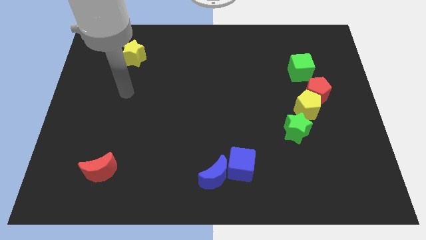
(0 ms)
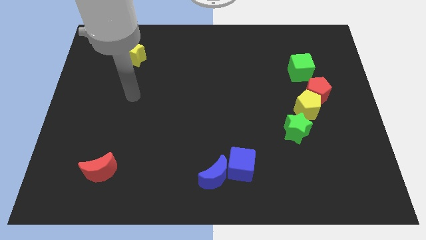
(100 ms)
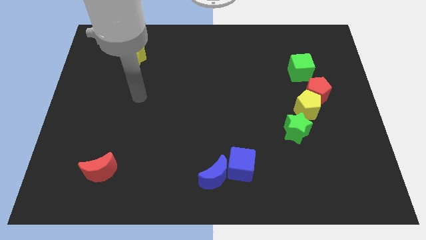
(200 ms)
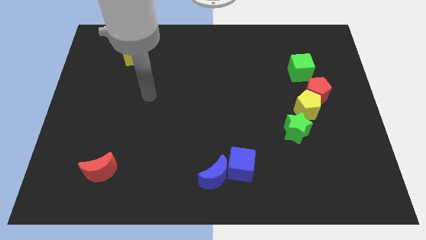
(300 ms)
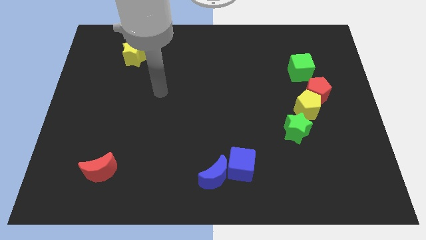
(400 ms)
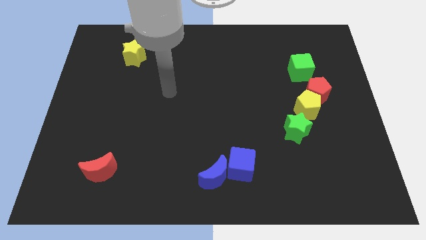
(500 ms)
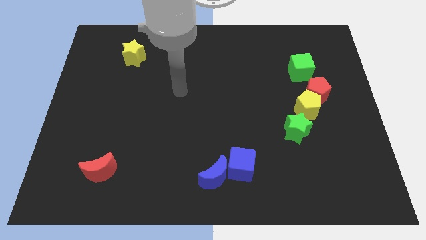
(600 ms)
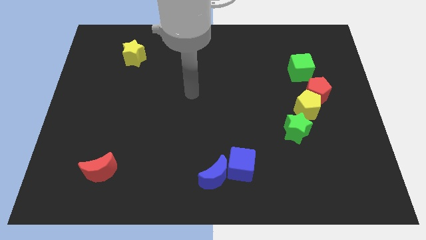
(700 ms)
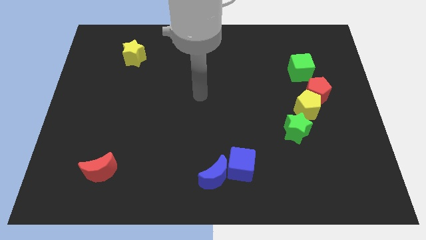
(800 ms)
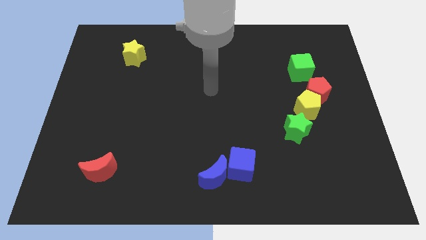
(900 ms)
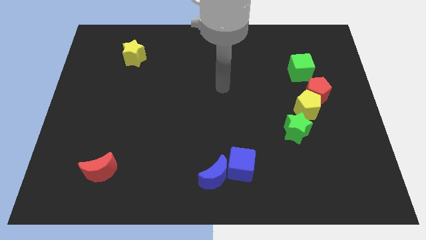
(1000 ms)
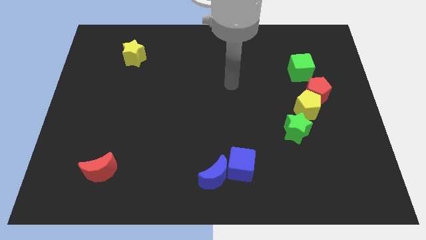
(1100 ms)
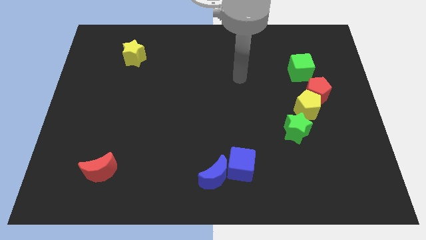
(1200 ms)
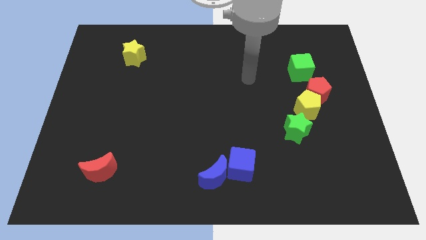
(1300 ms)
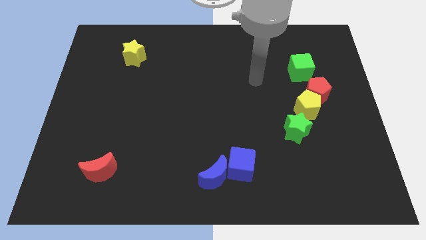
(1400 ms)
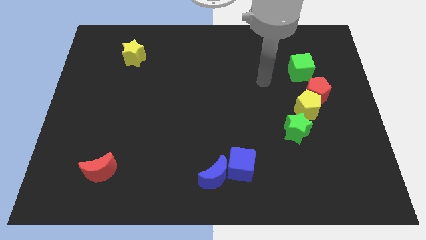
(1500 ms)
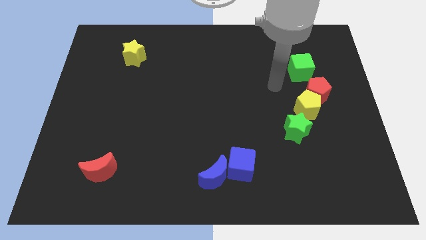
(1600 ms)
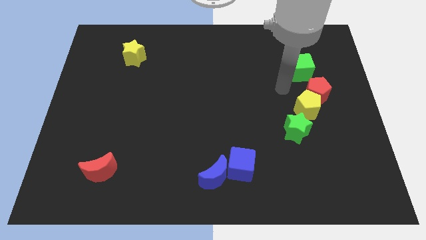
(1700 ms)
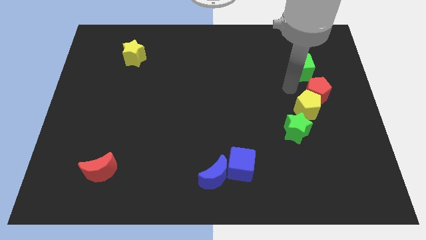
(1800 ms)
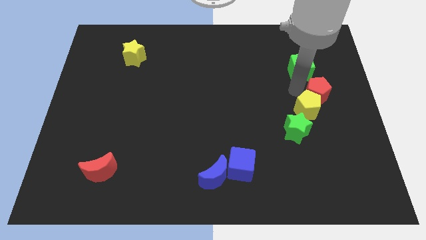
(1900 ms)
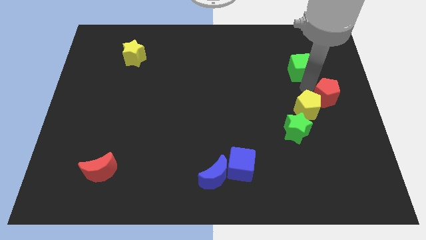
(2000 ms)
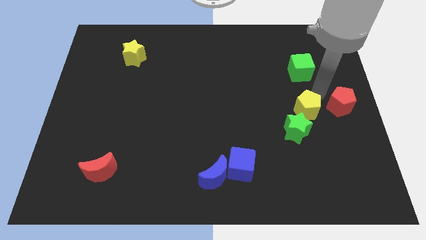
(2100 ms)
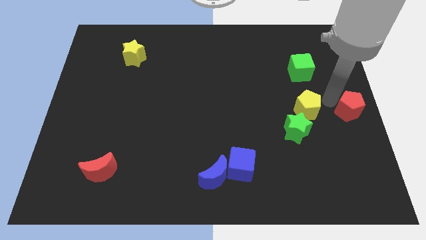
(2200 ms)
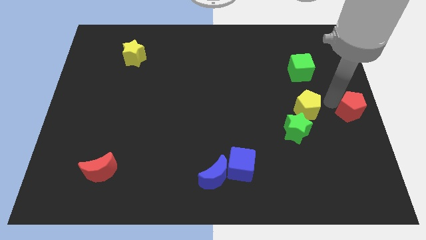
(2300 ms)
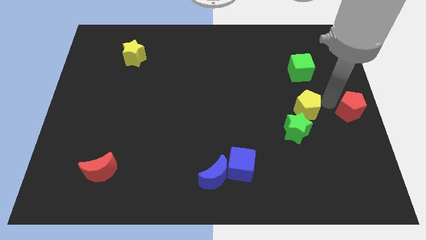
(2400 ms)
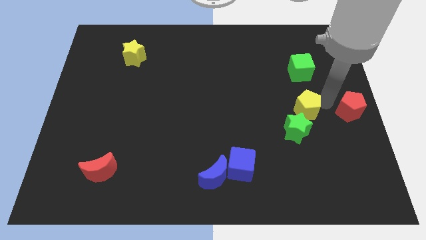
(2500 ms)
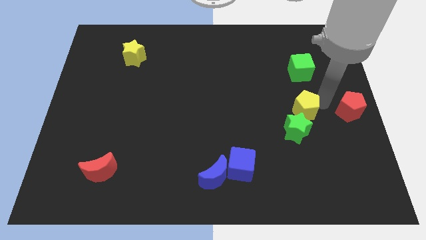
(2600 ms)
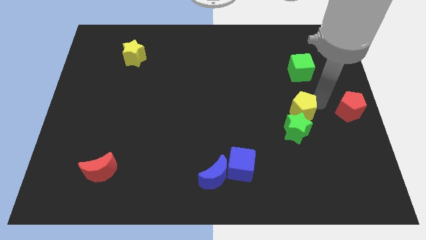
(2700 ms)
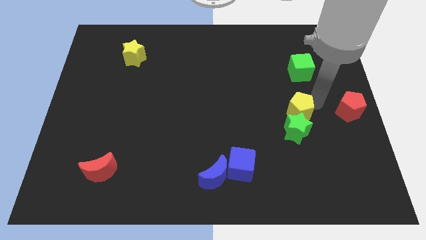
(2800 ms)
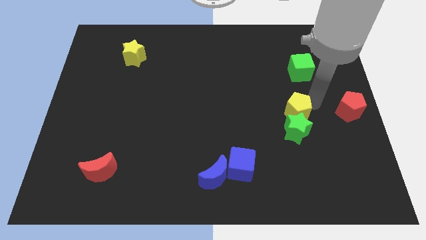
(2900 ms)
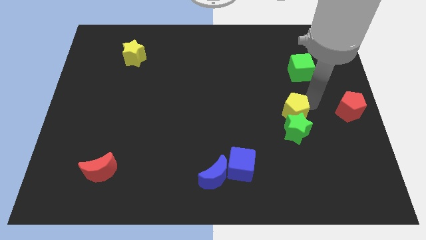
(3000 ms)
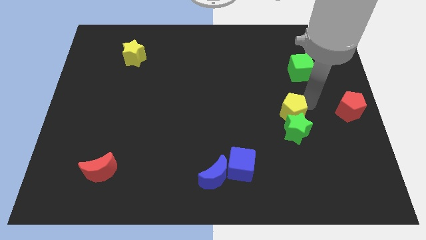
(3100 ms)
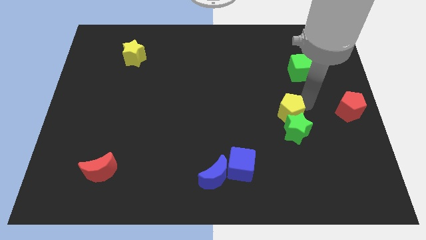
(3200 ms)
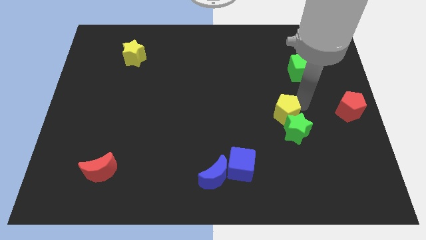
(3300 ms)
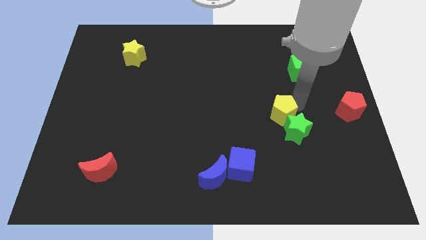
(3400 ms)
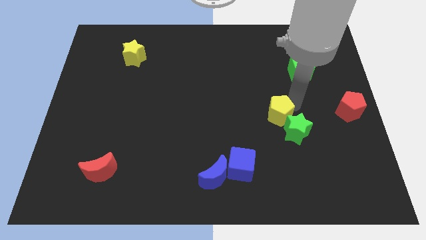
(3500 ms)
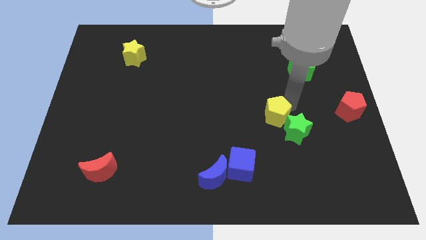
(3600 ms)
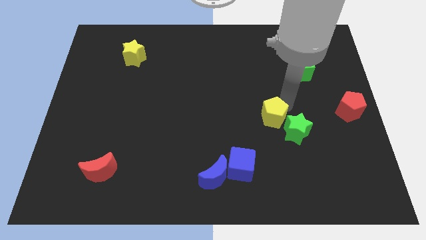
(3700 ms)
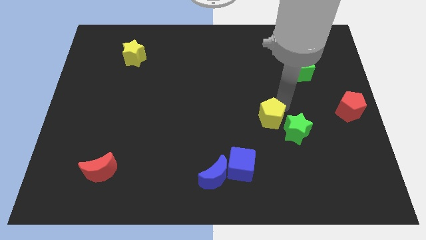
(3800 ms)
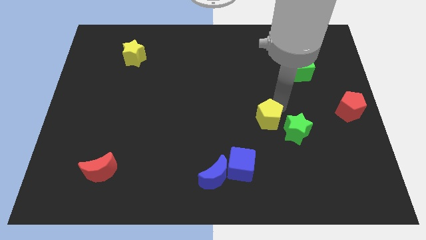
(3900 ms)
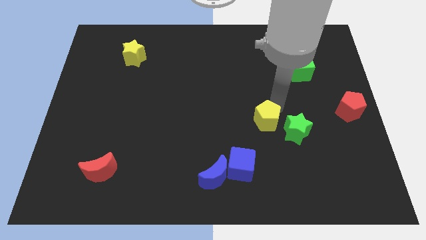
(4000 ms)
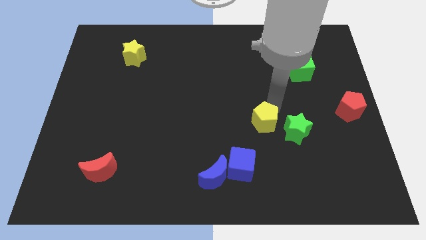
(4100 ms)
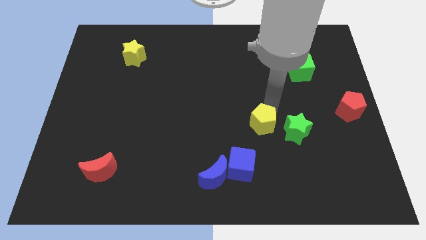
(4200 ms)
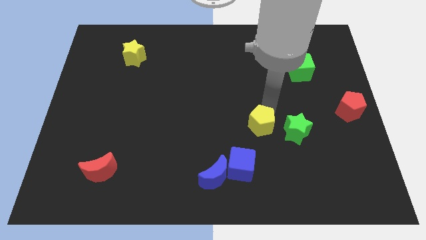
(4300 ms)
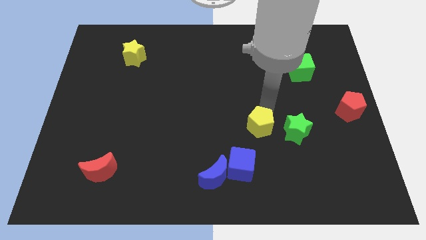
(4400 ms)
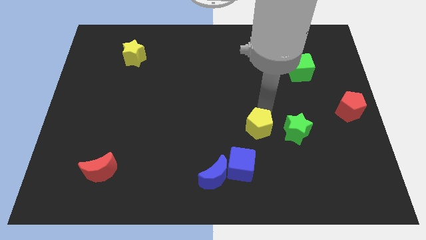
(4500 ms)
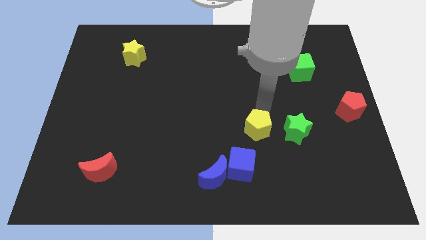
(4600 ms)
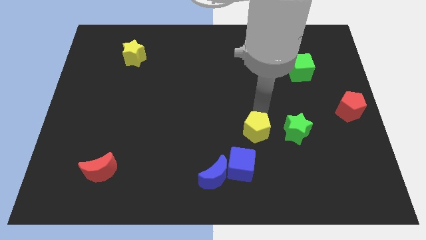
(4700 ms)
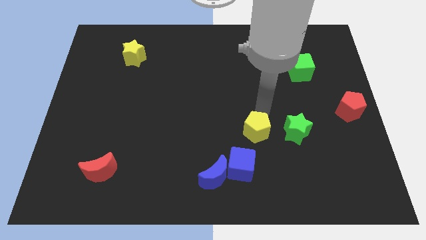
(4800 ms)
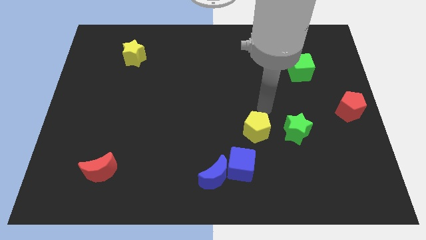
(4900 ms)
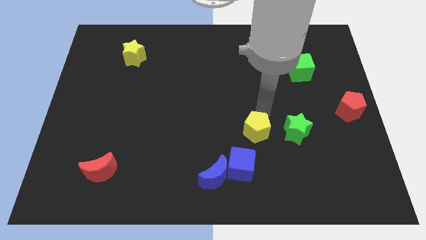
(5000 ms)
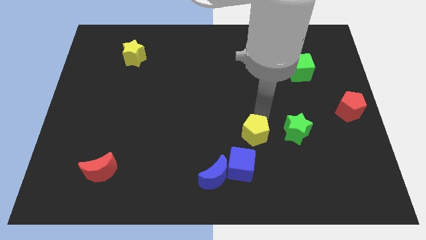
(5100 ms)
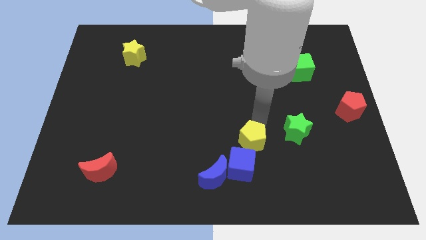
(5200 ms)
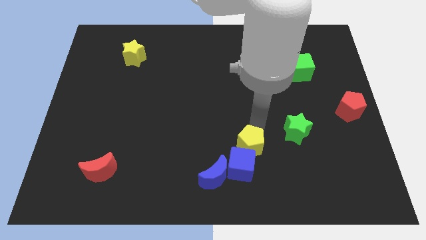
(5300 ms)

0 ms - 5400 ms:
put the yellow pentagon towards the blue cube
